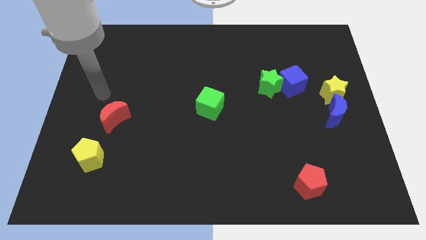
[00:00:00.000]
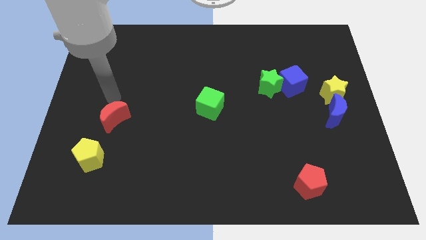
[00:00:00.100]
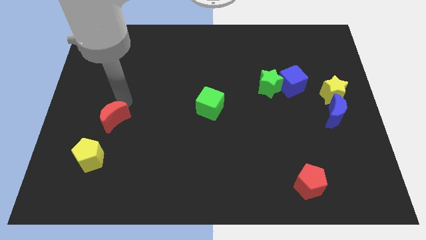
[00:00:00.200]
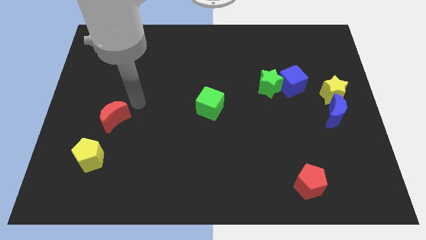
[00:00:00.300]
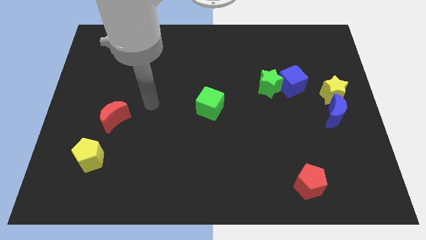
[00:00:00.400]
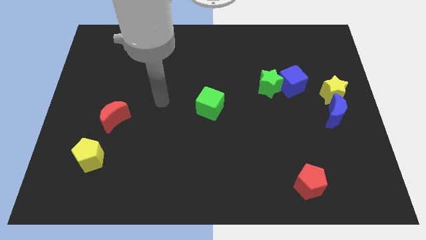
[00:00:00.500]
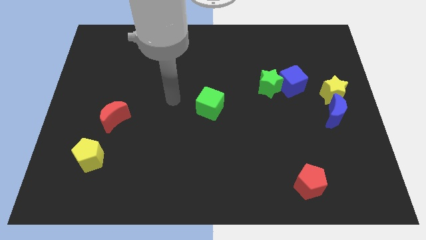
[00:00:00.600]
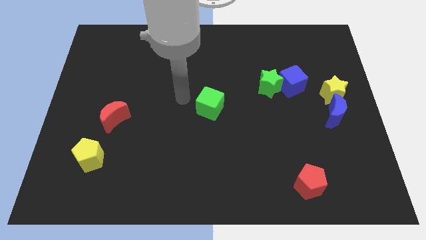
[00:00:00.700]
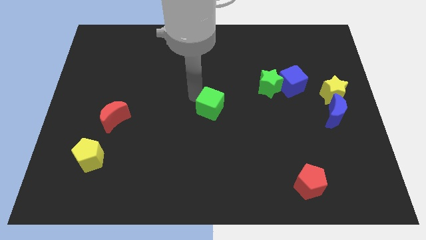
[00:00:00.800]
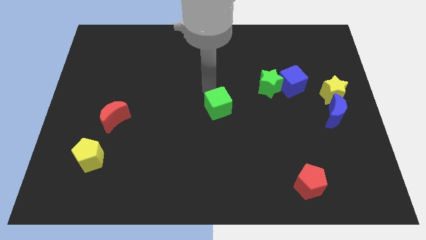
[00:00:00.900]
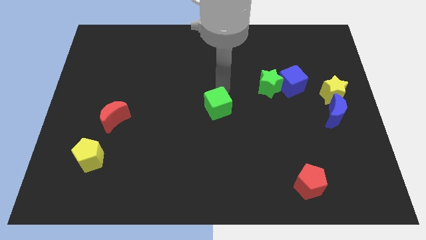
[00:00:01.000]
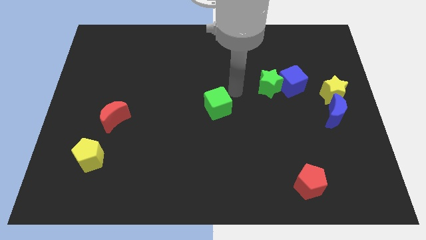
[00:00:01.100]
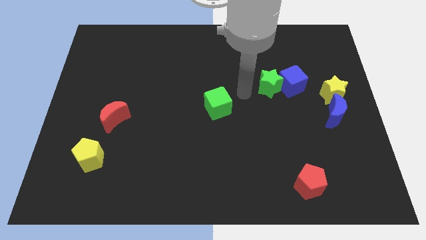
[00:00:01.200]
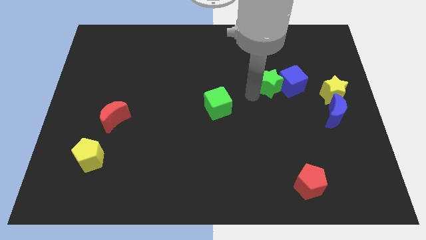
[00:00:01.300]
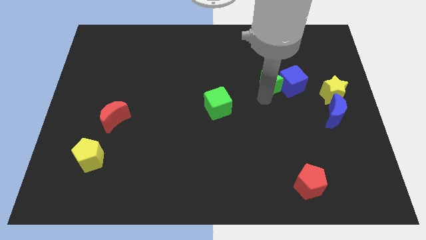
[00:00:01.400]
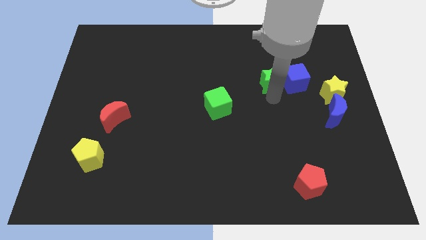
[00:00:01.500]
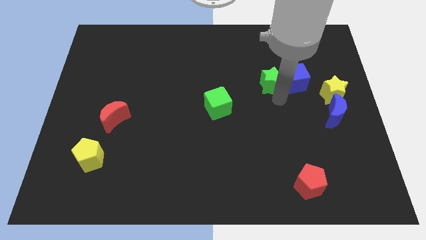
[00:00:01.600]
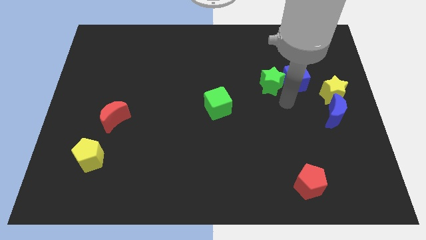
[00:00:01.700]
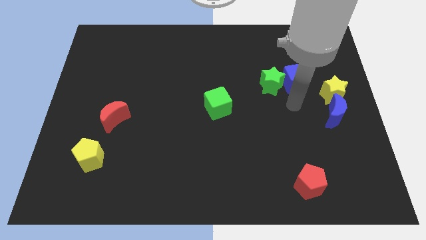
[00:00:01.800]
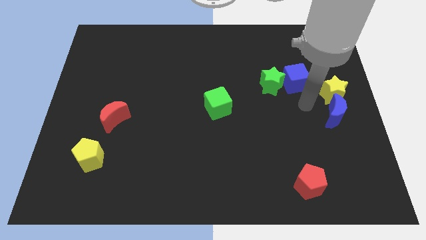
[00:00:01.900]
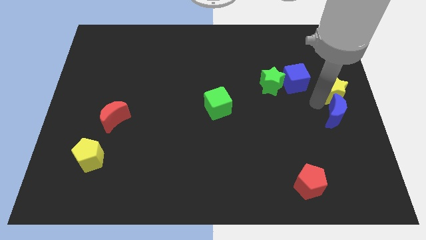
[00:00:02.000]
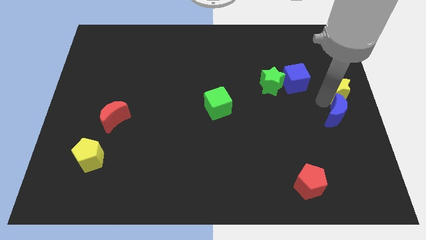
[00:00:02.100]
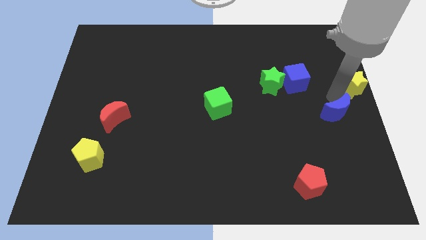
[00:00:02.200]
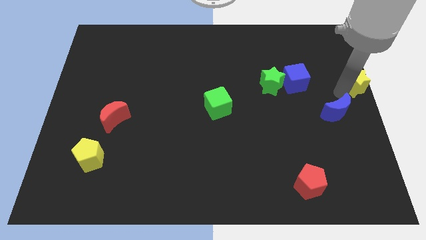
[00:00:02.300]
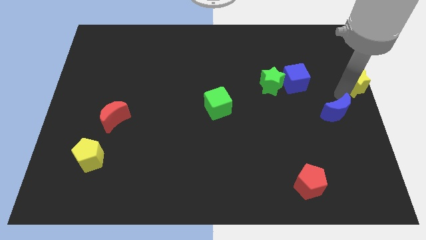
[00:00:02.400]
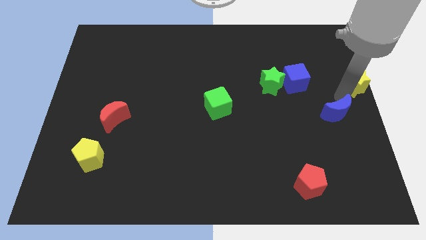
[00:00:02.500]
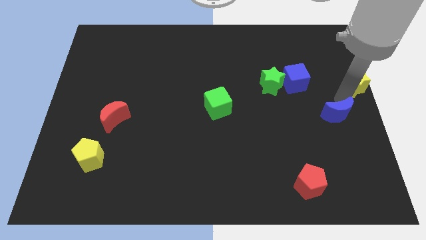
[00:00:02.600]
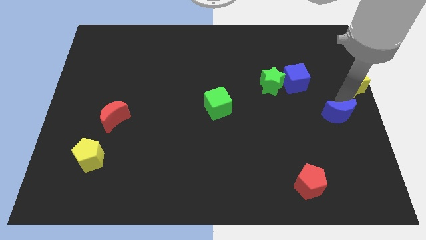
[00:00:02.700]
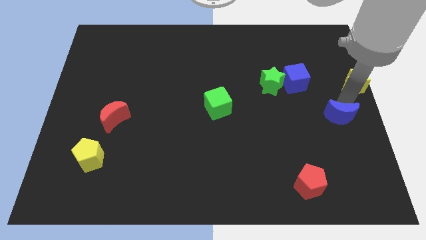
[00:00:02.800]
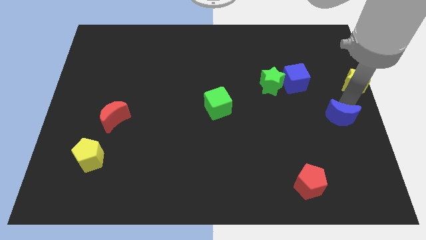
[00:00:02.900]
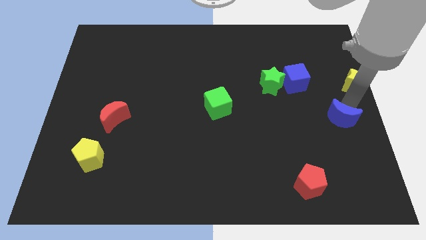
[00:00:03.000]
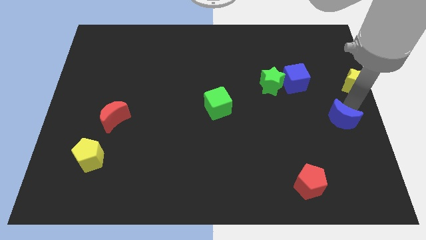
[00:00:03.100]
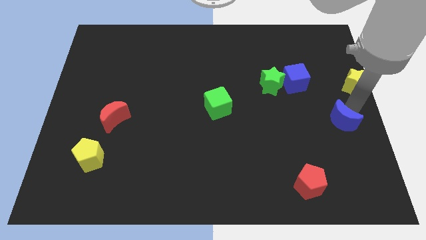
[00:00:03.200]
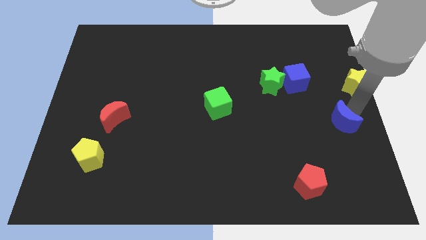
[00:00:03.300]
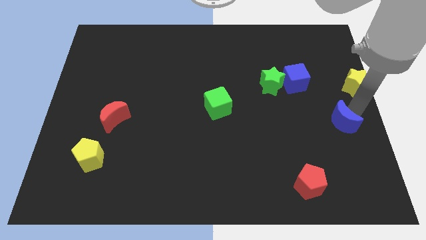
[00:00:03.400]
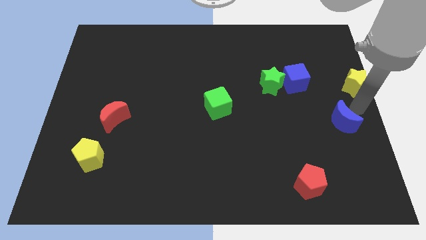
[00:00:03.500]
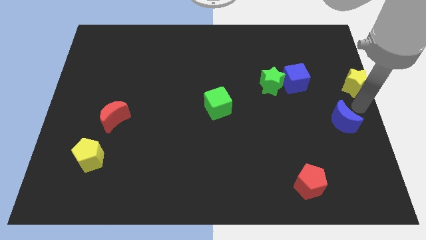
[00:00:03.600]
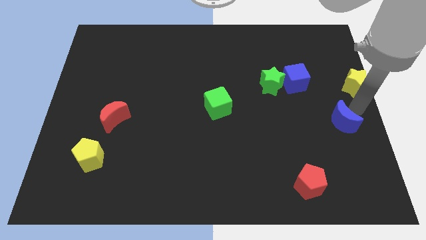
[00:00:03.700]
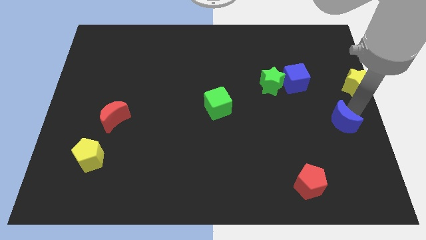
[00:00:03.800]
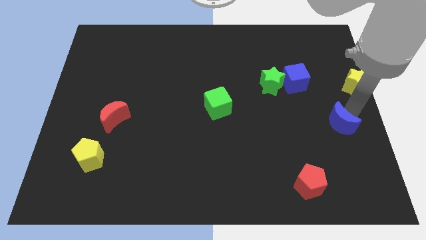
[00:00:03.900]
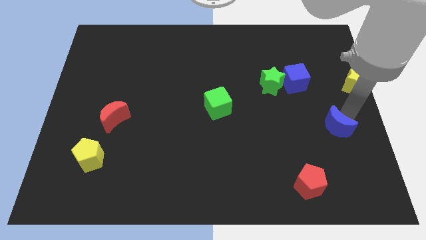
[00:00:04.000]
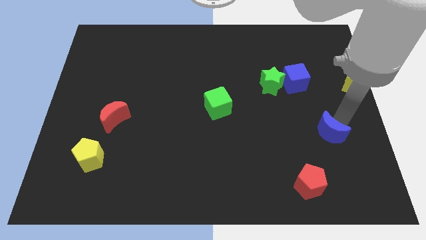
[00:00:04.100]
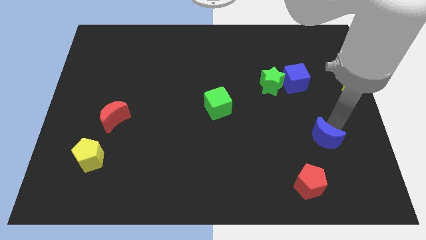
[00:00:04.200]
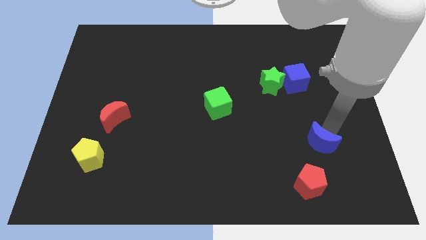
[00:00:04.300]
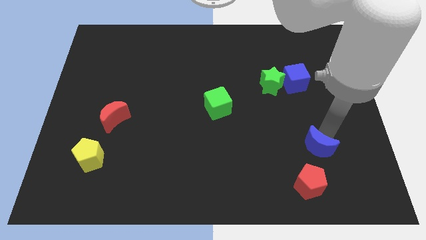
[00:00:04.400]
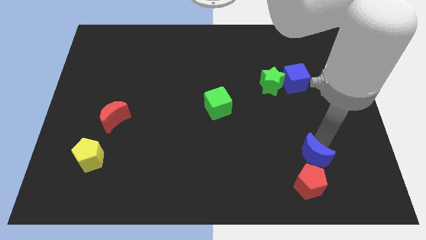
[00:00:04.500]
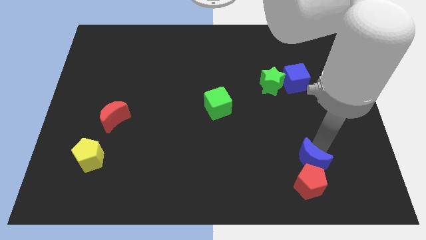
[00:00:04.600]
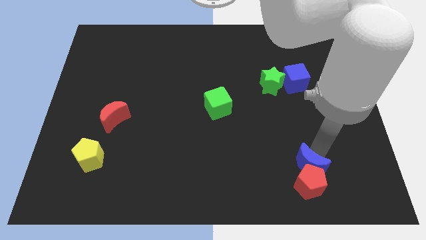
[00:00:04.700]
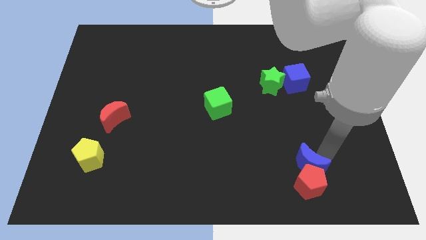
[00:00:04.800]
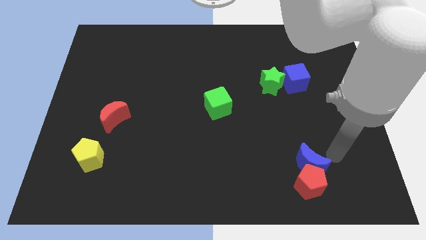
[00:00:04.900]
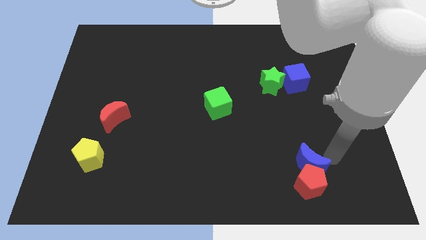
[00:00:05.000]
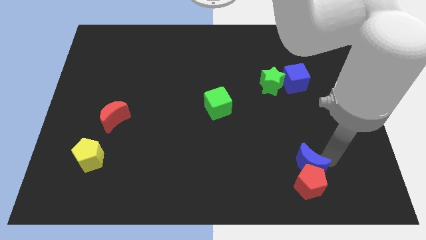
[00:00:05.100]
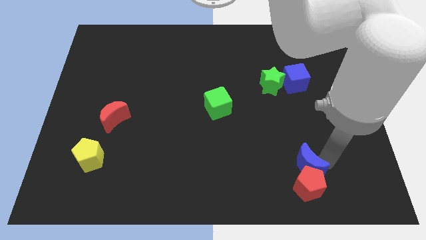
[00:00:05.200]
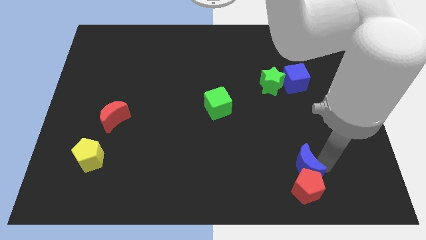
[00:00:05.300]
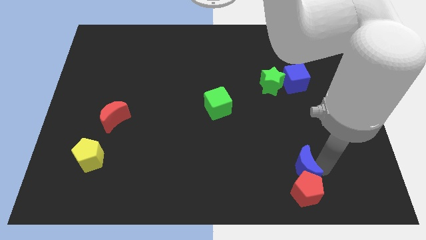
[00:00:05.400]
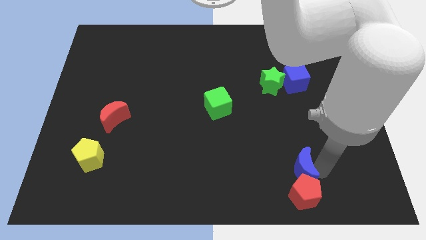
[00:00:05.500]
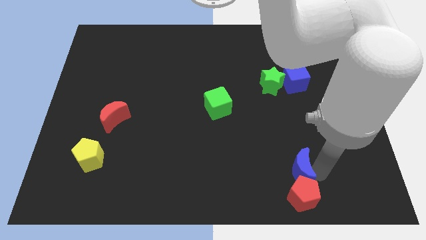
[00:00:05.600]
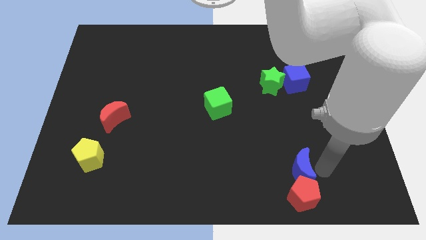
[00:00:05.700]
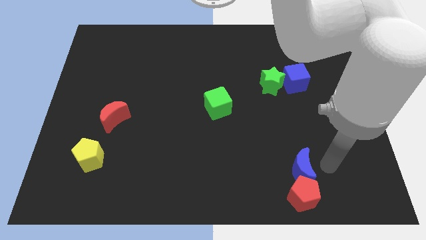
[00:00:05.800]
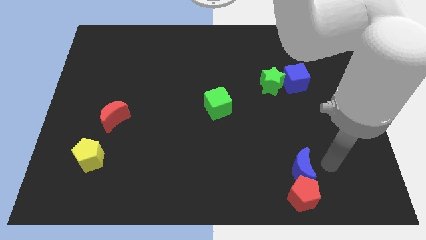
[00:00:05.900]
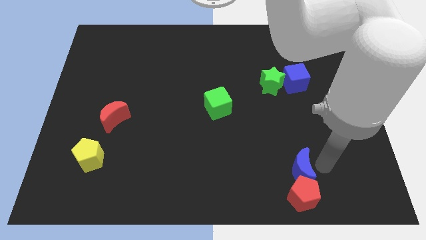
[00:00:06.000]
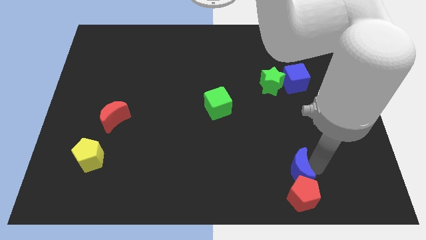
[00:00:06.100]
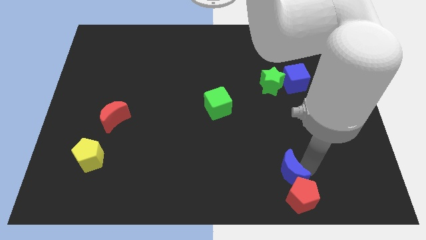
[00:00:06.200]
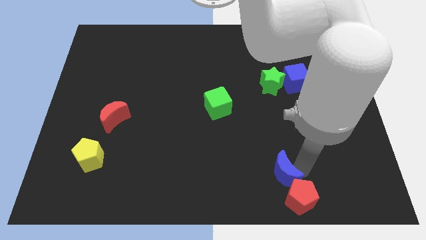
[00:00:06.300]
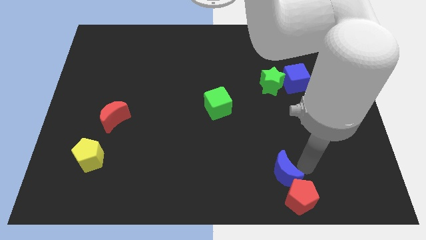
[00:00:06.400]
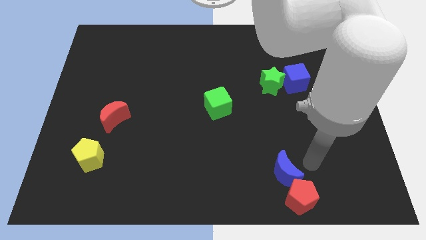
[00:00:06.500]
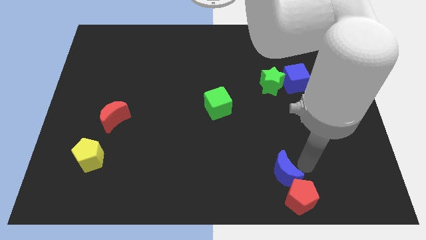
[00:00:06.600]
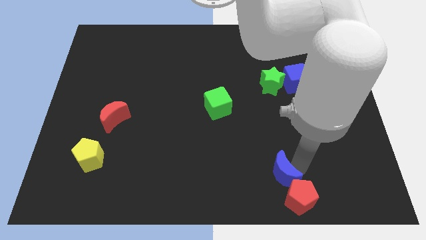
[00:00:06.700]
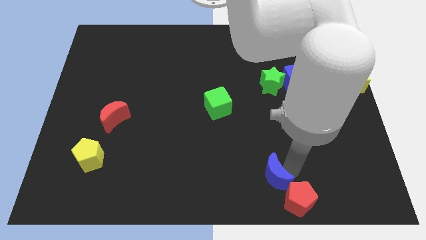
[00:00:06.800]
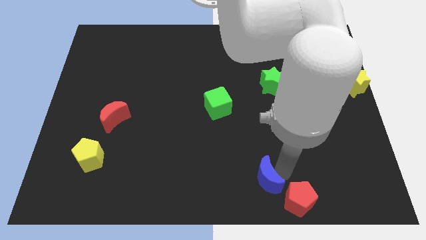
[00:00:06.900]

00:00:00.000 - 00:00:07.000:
put the blue moon to the bottom

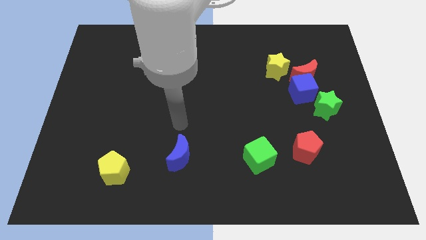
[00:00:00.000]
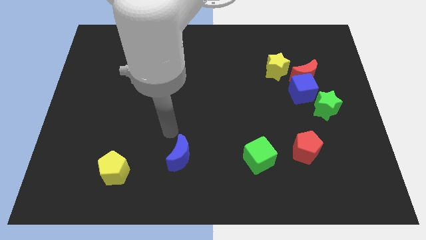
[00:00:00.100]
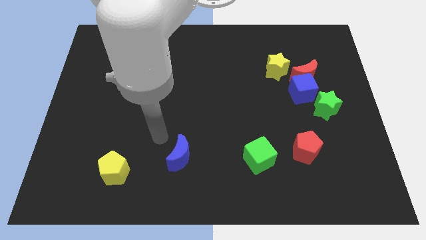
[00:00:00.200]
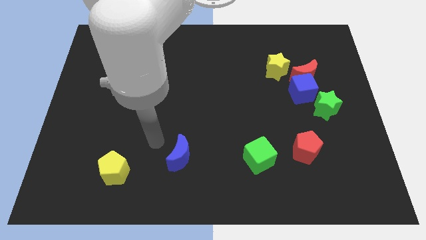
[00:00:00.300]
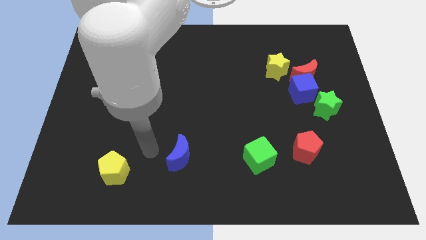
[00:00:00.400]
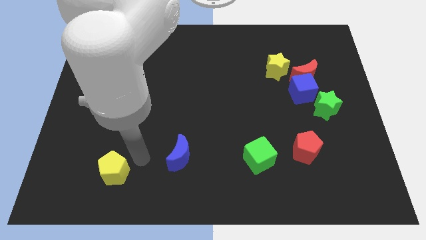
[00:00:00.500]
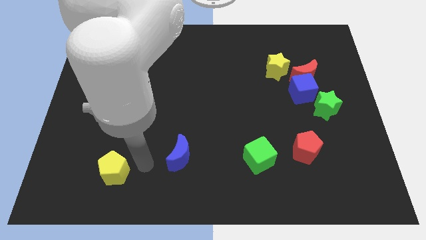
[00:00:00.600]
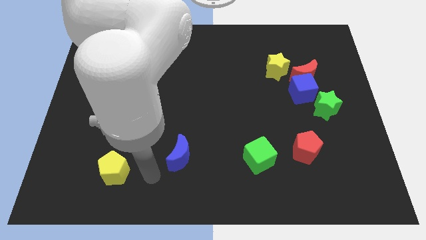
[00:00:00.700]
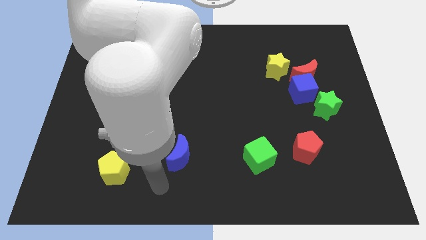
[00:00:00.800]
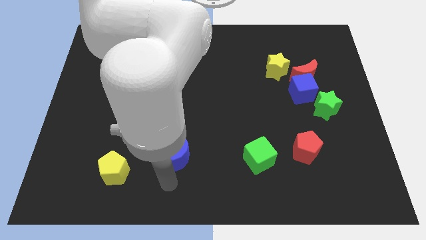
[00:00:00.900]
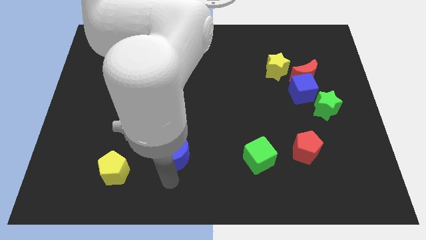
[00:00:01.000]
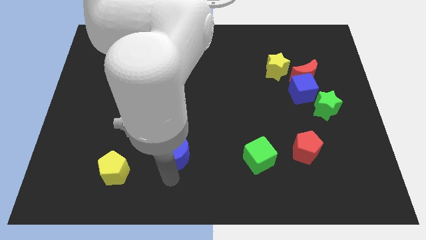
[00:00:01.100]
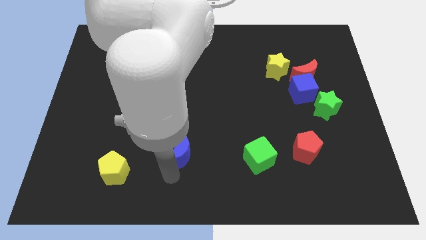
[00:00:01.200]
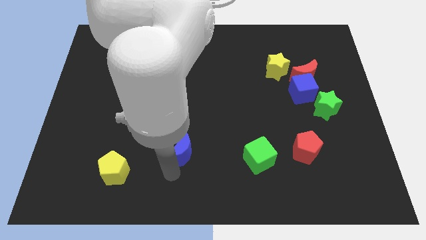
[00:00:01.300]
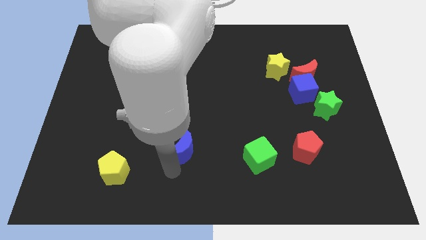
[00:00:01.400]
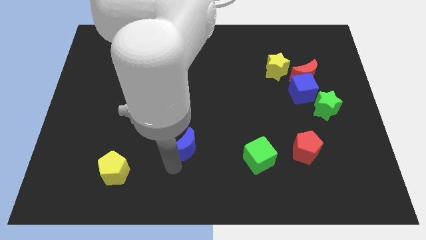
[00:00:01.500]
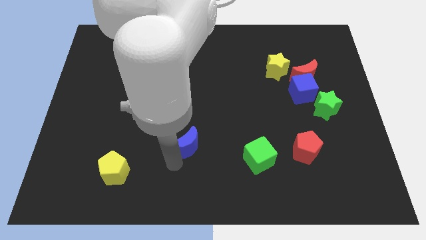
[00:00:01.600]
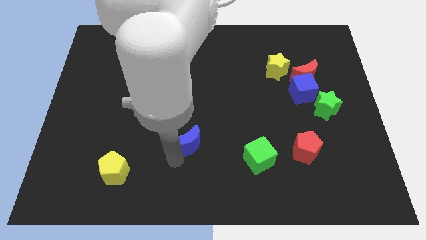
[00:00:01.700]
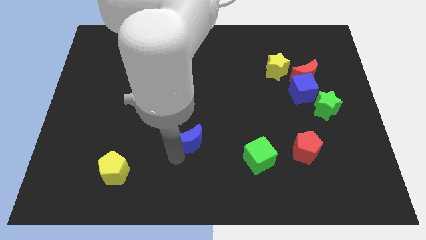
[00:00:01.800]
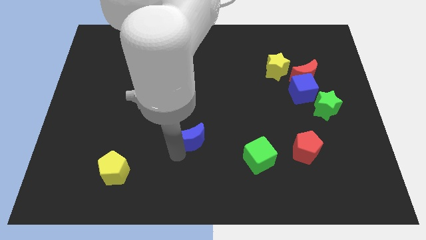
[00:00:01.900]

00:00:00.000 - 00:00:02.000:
push the blue moon to the center
